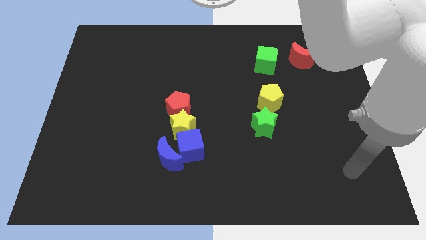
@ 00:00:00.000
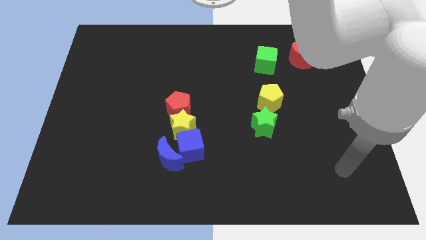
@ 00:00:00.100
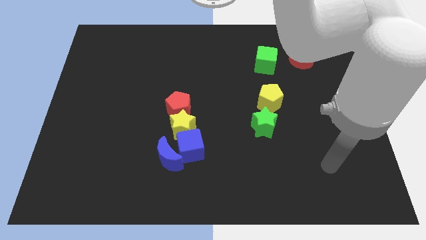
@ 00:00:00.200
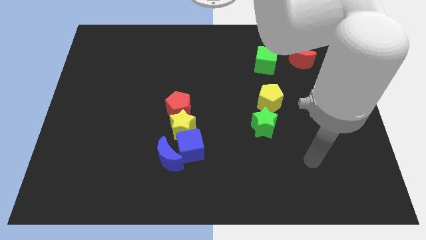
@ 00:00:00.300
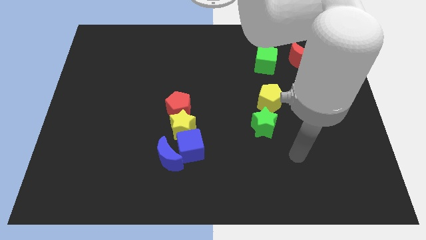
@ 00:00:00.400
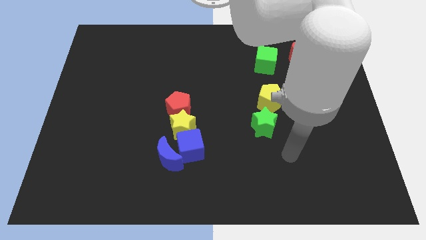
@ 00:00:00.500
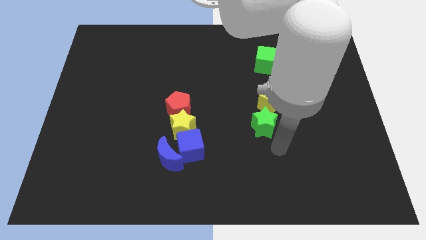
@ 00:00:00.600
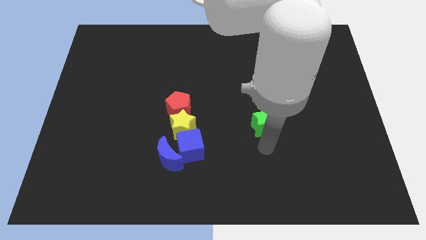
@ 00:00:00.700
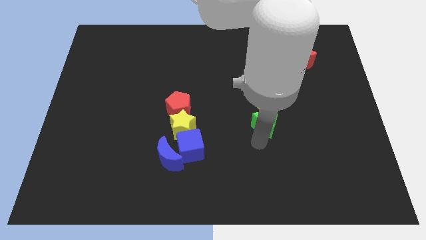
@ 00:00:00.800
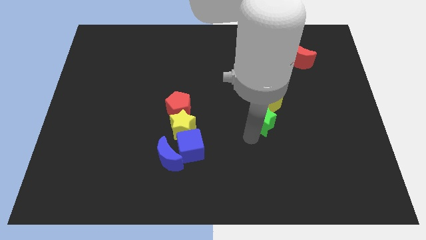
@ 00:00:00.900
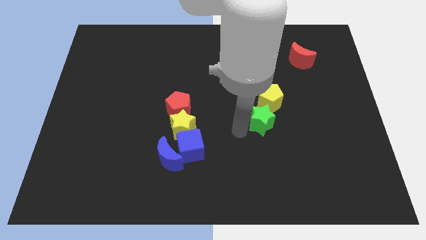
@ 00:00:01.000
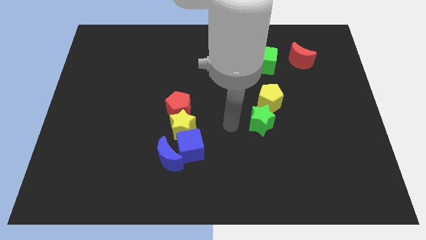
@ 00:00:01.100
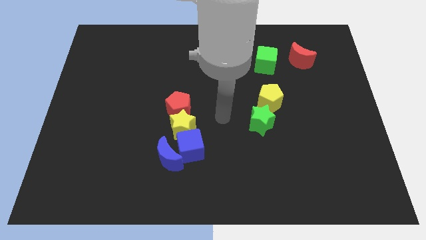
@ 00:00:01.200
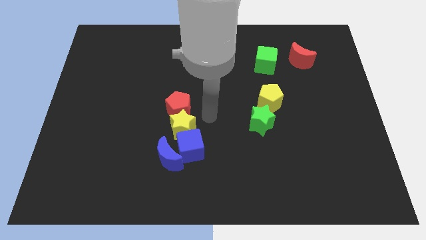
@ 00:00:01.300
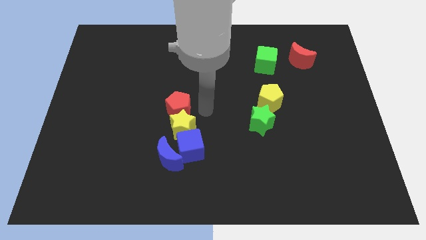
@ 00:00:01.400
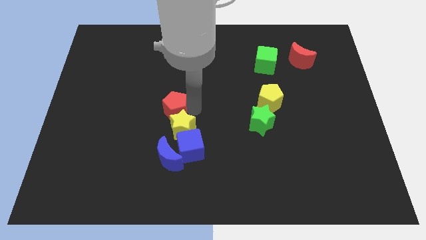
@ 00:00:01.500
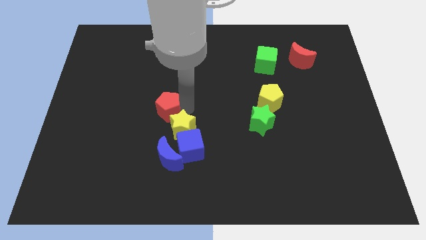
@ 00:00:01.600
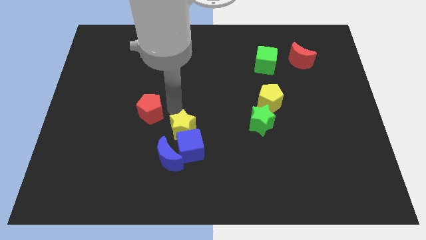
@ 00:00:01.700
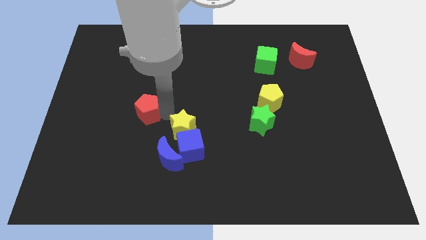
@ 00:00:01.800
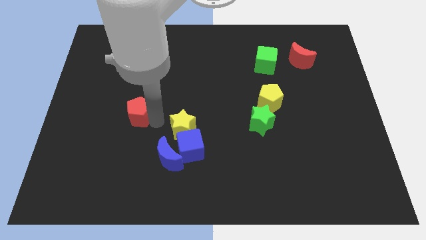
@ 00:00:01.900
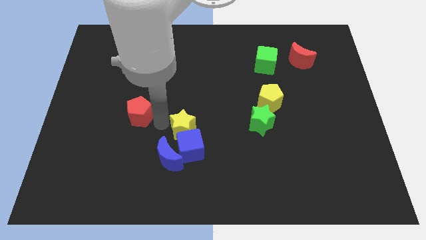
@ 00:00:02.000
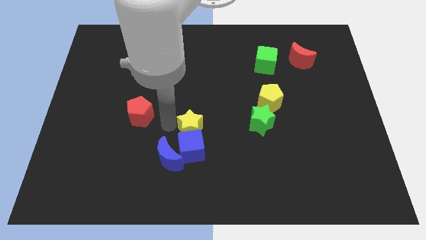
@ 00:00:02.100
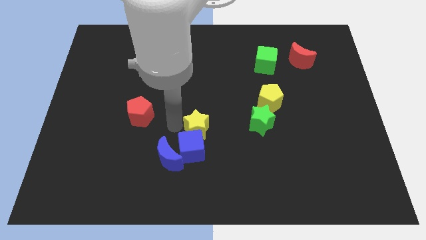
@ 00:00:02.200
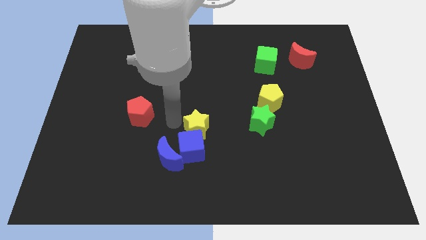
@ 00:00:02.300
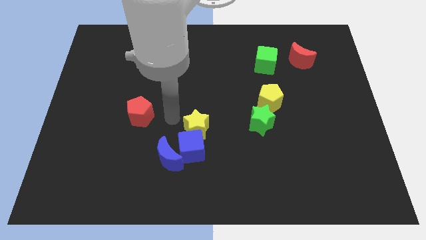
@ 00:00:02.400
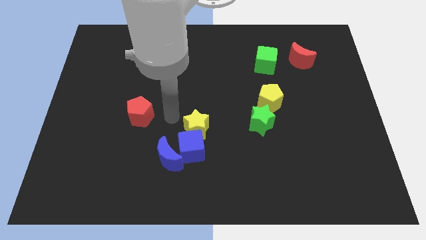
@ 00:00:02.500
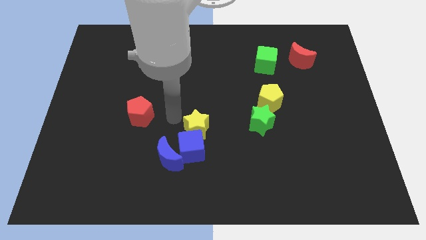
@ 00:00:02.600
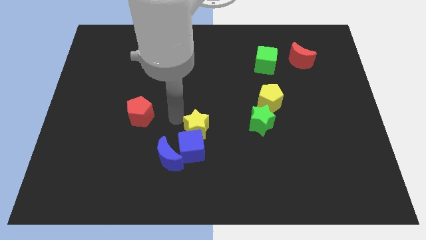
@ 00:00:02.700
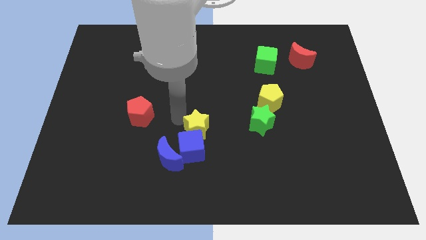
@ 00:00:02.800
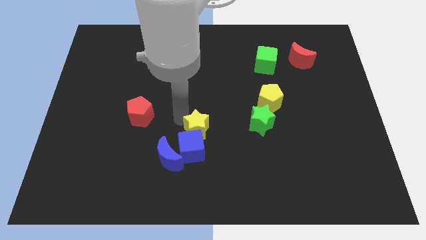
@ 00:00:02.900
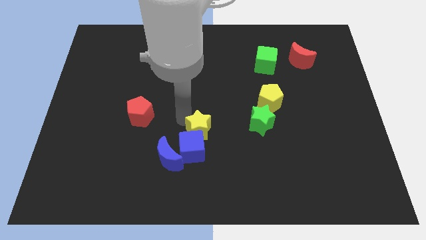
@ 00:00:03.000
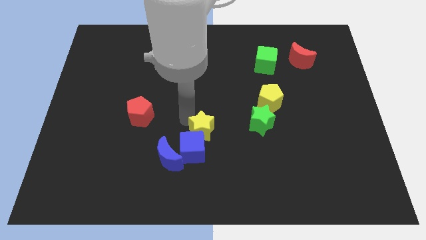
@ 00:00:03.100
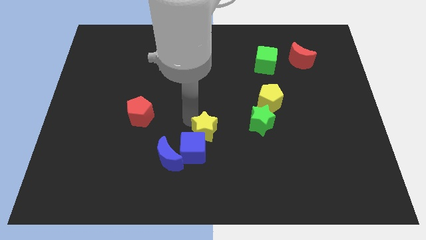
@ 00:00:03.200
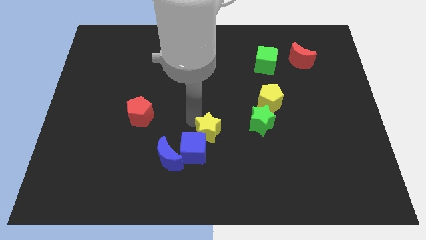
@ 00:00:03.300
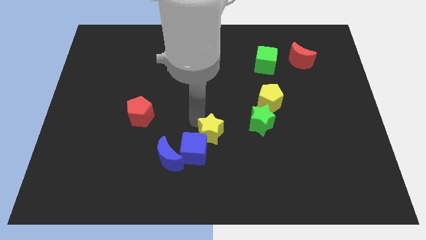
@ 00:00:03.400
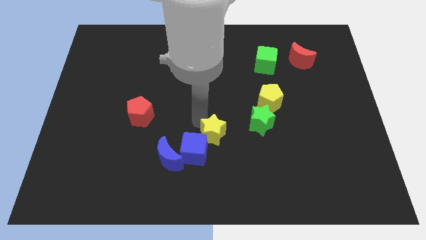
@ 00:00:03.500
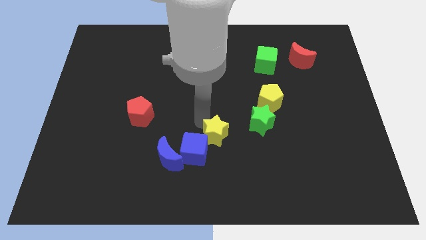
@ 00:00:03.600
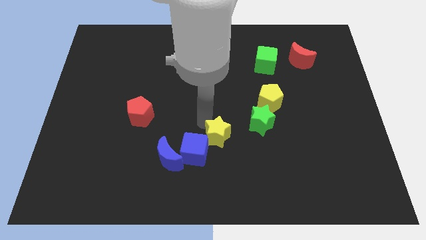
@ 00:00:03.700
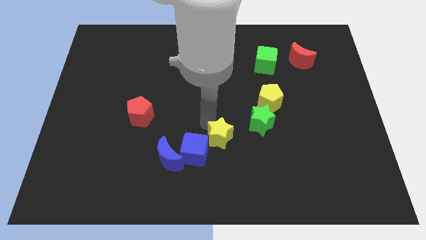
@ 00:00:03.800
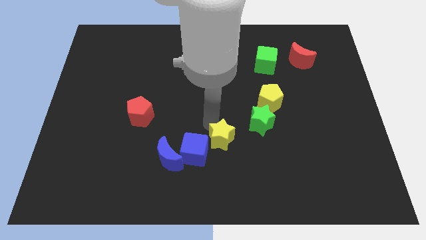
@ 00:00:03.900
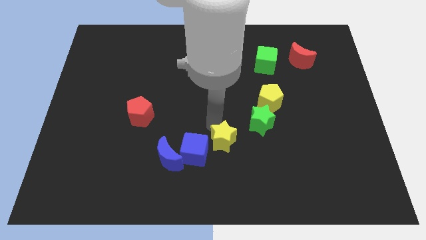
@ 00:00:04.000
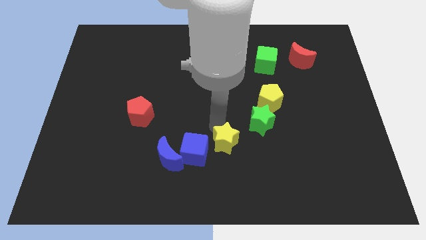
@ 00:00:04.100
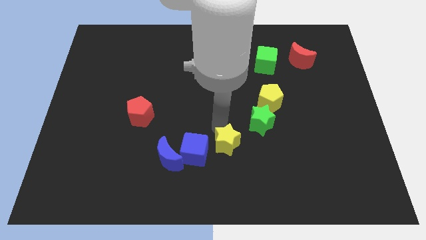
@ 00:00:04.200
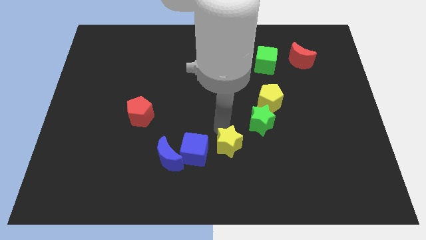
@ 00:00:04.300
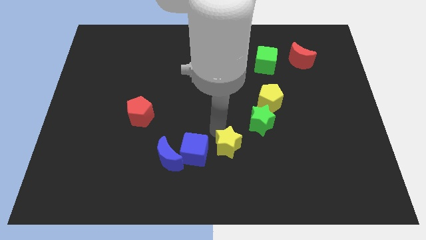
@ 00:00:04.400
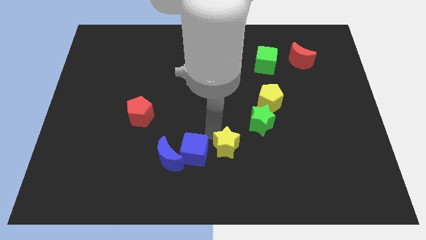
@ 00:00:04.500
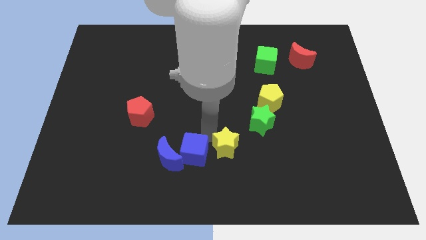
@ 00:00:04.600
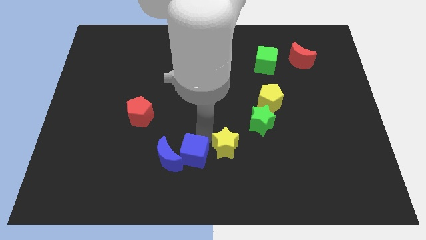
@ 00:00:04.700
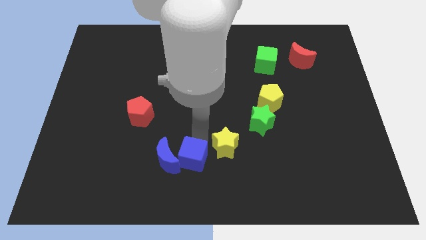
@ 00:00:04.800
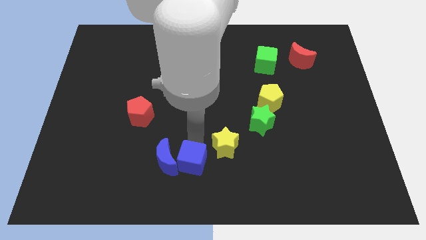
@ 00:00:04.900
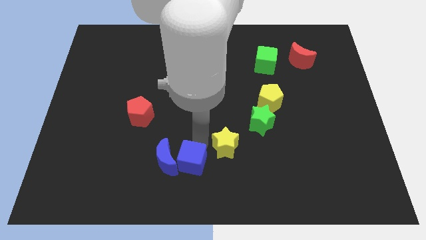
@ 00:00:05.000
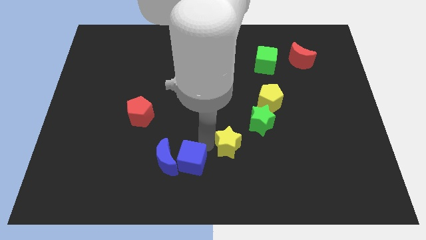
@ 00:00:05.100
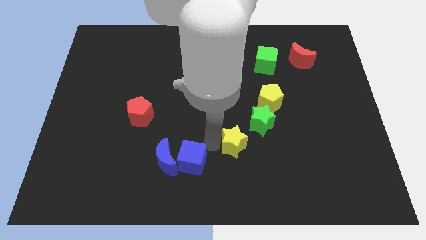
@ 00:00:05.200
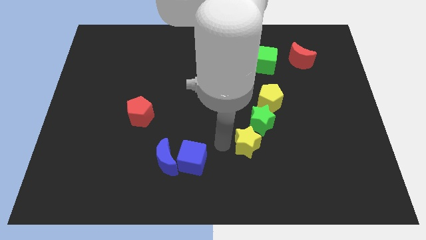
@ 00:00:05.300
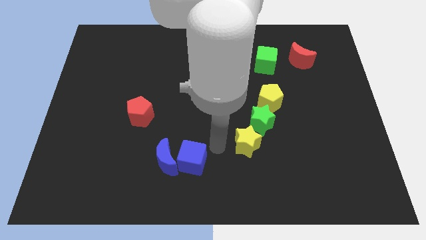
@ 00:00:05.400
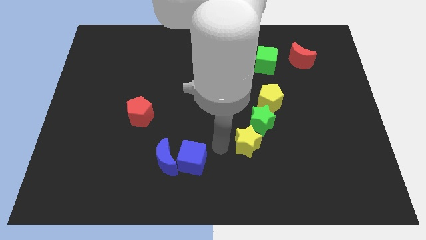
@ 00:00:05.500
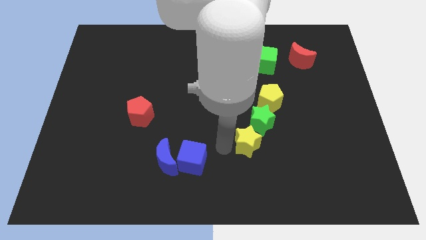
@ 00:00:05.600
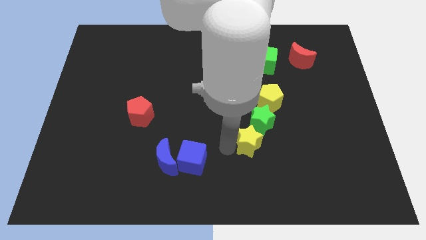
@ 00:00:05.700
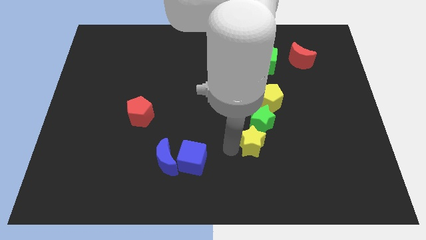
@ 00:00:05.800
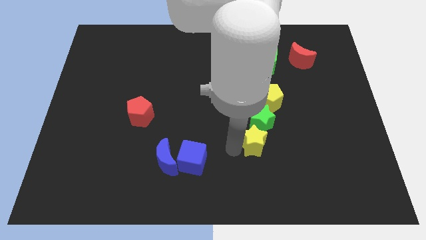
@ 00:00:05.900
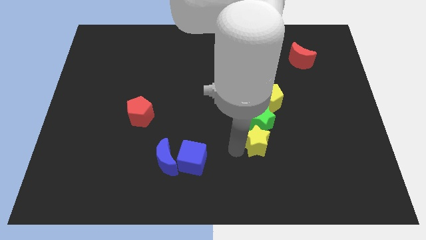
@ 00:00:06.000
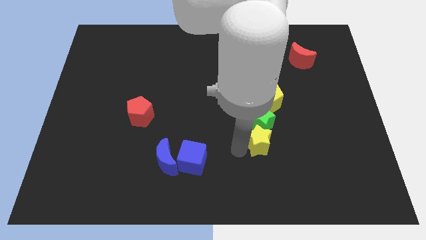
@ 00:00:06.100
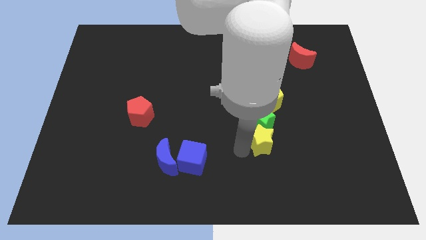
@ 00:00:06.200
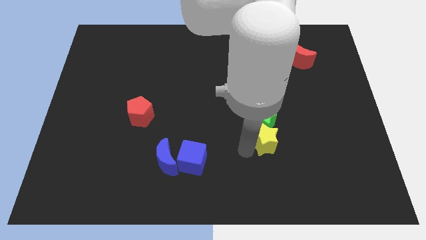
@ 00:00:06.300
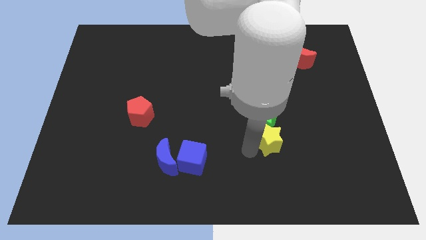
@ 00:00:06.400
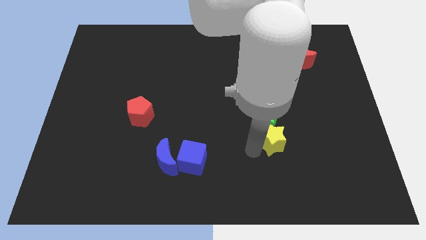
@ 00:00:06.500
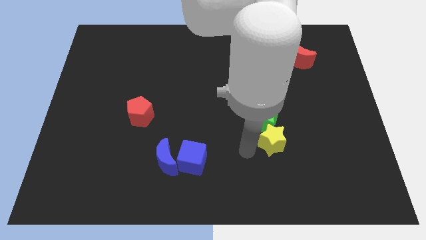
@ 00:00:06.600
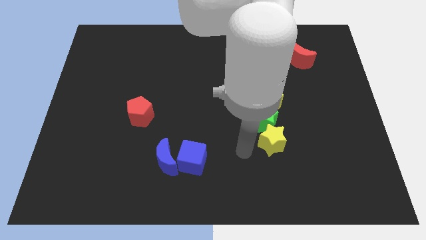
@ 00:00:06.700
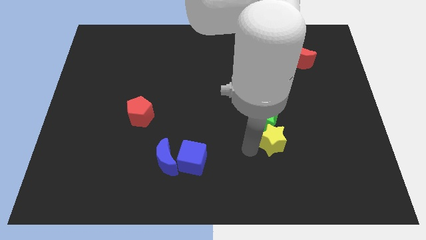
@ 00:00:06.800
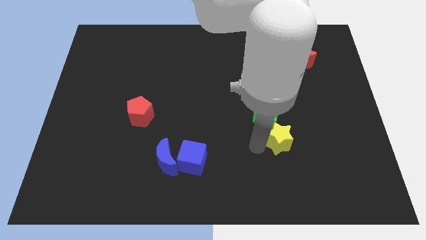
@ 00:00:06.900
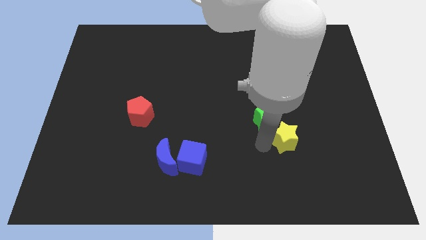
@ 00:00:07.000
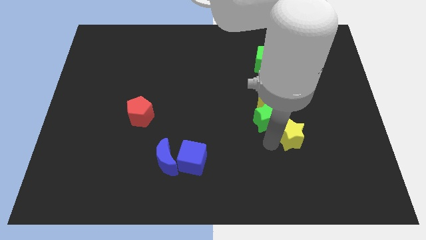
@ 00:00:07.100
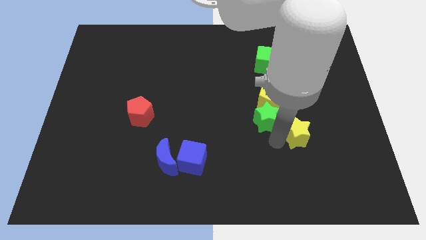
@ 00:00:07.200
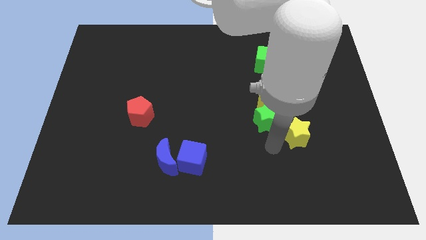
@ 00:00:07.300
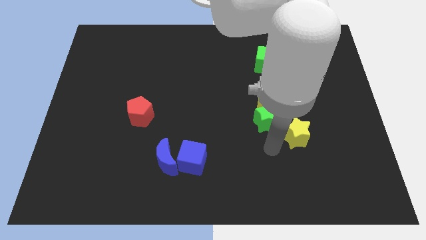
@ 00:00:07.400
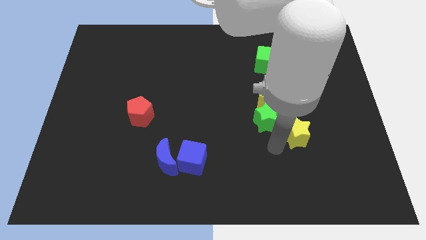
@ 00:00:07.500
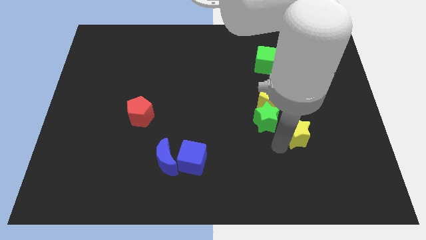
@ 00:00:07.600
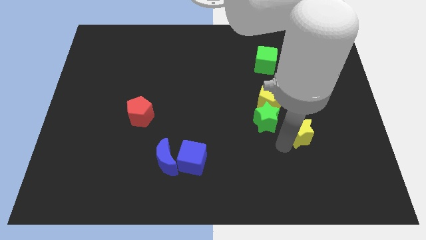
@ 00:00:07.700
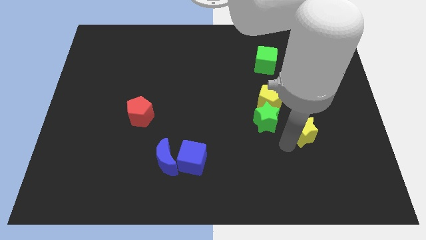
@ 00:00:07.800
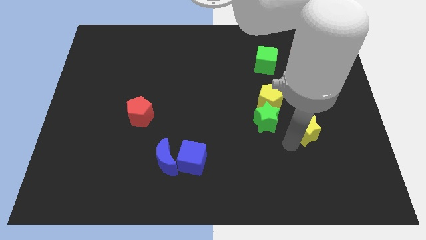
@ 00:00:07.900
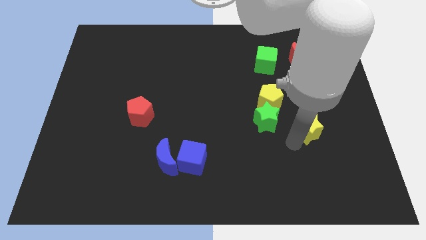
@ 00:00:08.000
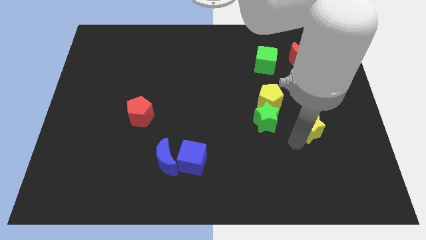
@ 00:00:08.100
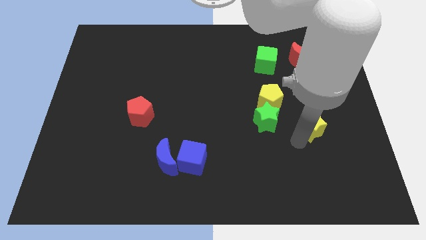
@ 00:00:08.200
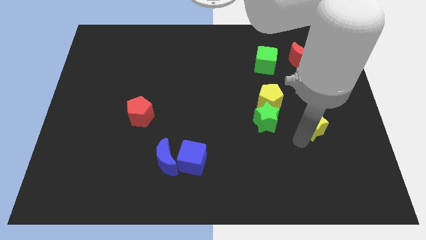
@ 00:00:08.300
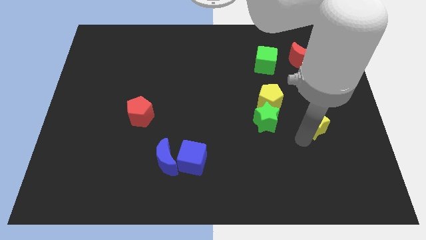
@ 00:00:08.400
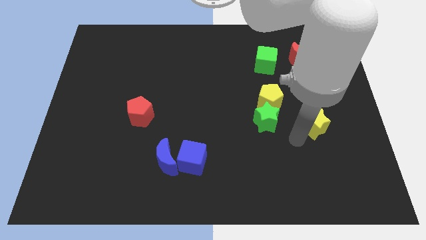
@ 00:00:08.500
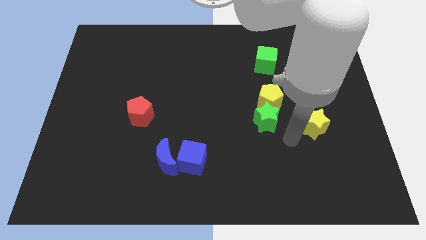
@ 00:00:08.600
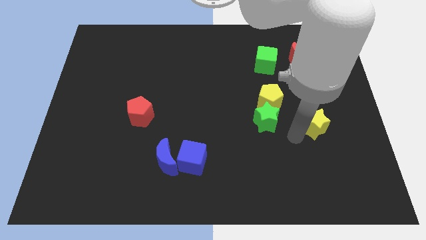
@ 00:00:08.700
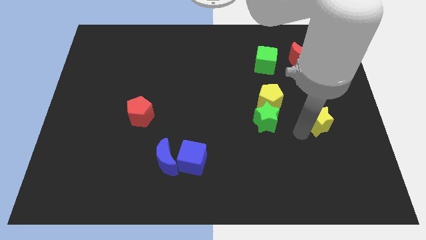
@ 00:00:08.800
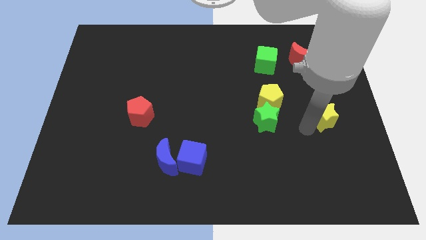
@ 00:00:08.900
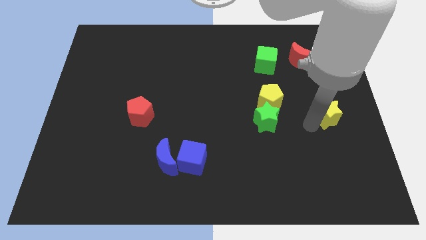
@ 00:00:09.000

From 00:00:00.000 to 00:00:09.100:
push the yellow star to the right side
